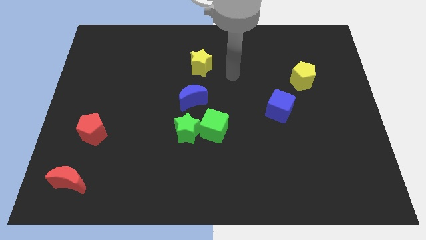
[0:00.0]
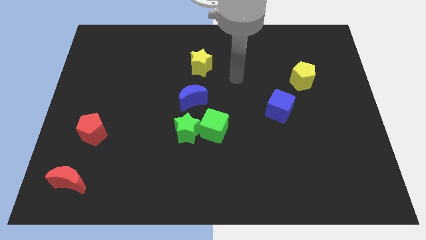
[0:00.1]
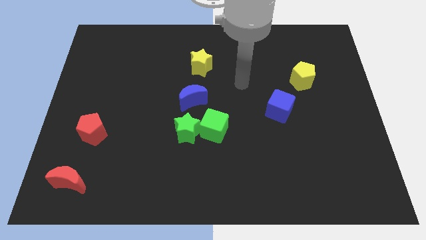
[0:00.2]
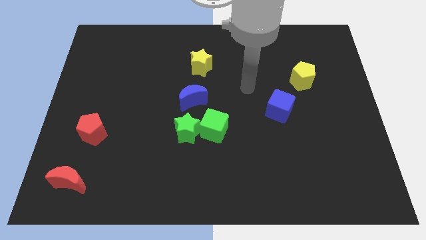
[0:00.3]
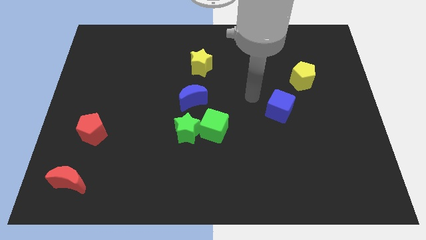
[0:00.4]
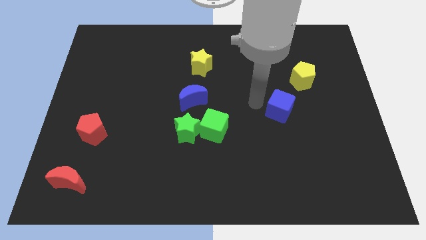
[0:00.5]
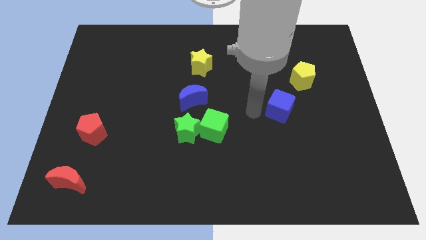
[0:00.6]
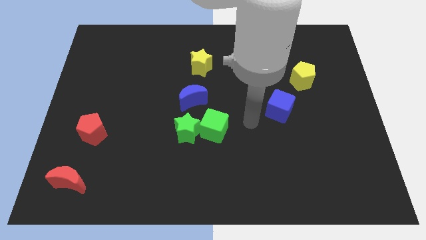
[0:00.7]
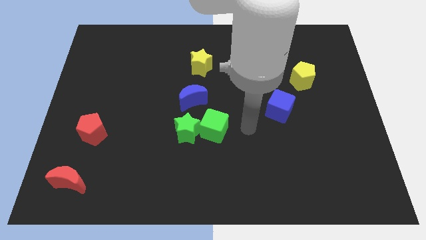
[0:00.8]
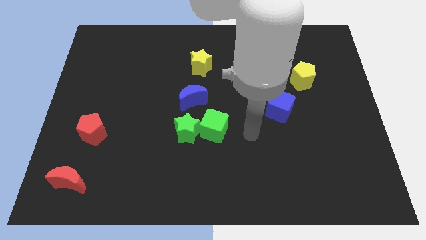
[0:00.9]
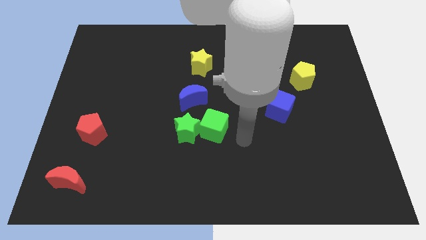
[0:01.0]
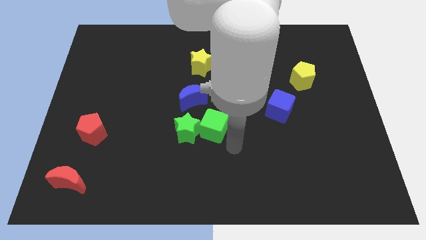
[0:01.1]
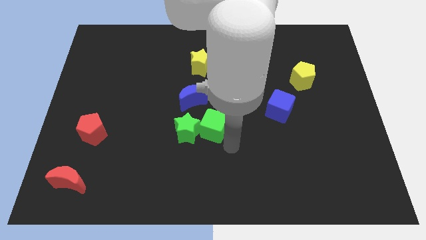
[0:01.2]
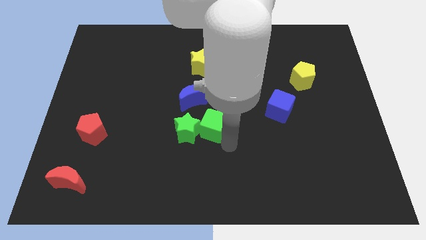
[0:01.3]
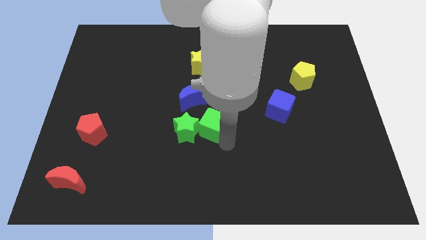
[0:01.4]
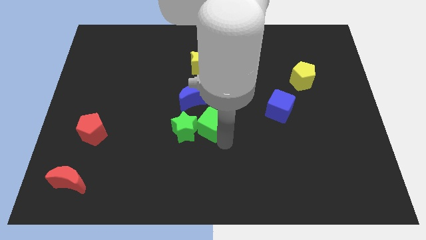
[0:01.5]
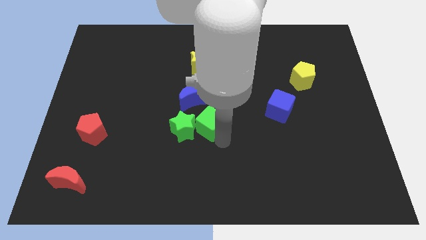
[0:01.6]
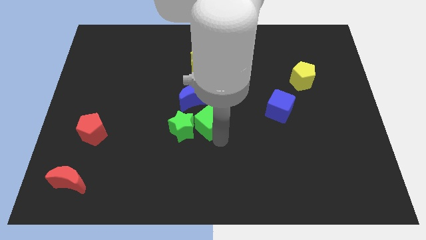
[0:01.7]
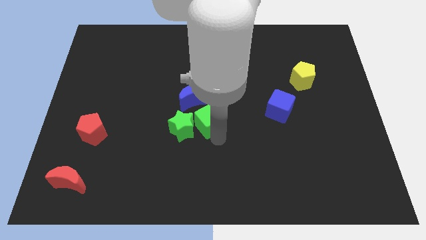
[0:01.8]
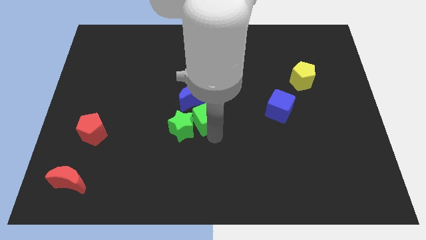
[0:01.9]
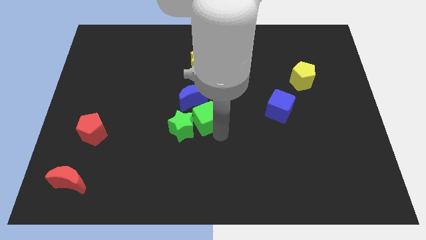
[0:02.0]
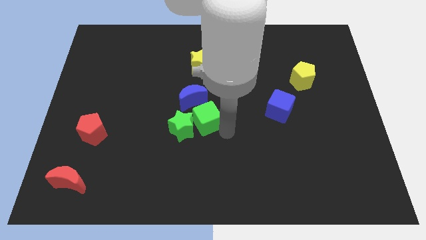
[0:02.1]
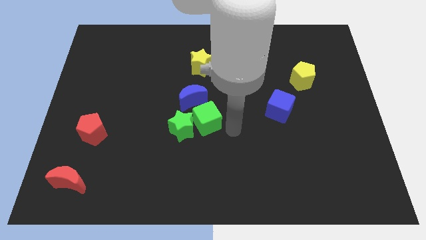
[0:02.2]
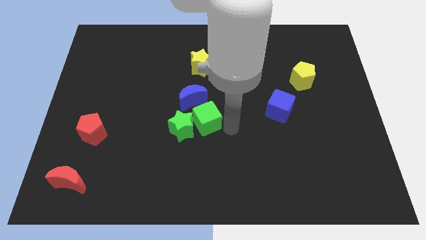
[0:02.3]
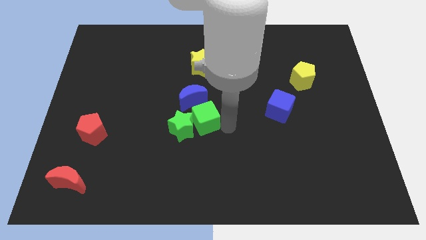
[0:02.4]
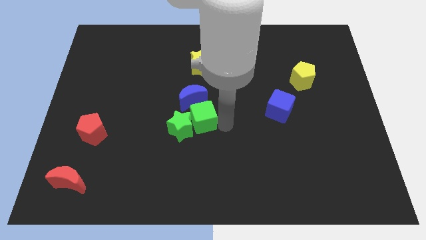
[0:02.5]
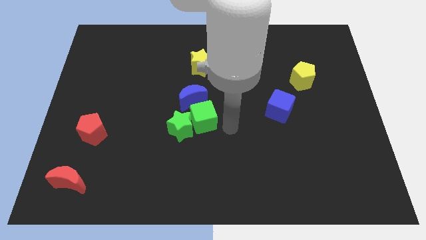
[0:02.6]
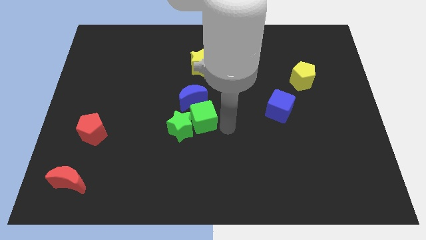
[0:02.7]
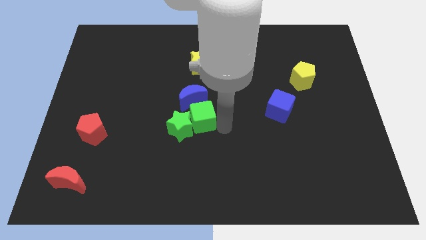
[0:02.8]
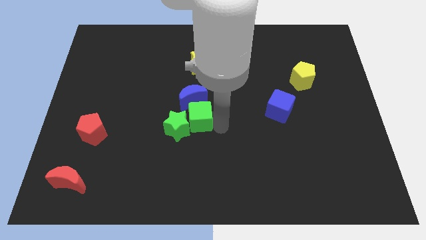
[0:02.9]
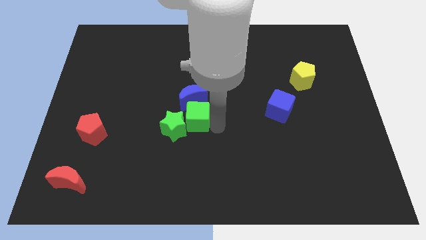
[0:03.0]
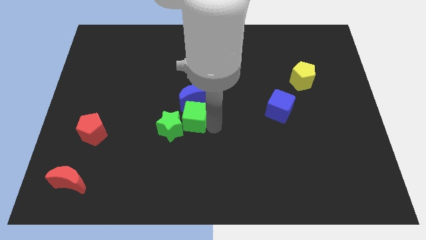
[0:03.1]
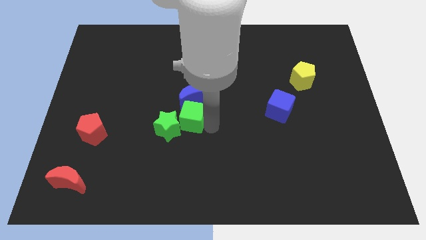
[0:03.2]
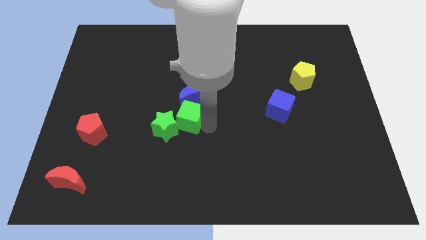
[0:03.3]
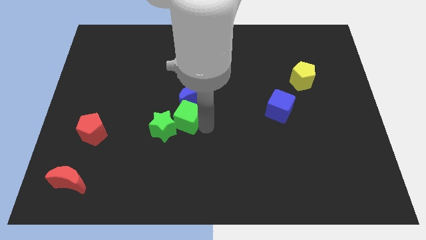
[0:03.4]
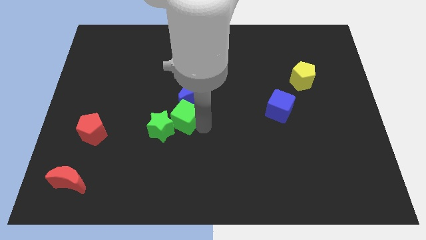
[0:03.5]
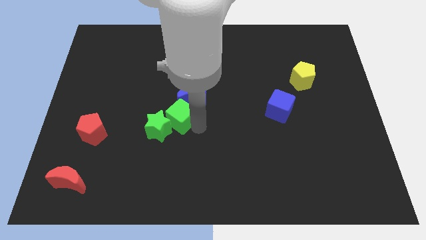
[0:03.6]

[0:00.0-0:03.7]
move the green cube a little bit upwards and to the left diagonally

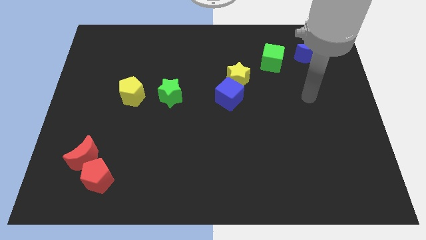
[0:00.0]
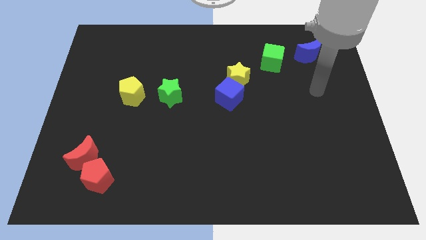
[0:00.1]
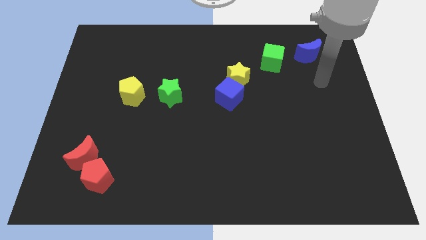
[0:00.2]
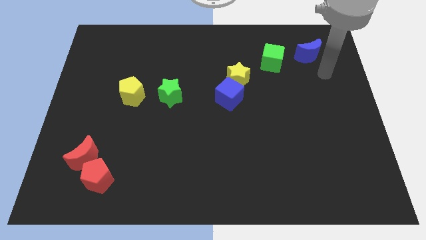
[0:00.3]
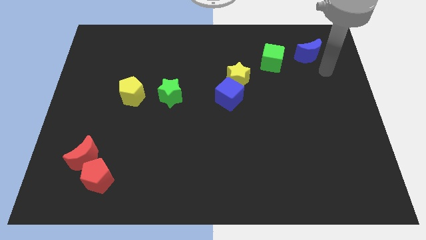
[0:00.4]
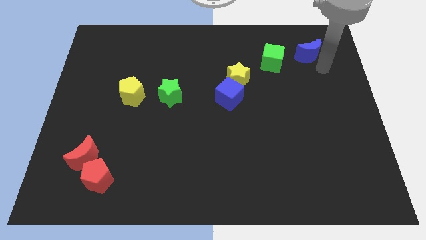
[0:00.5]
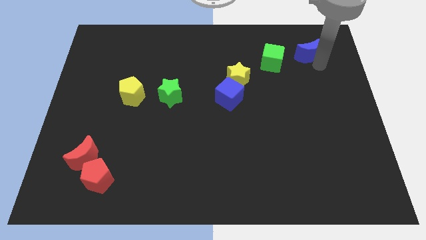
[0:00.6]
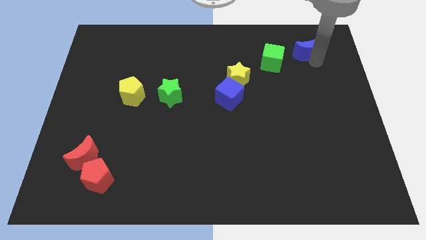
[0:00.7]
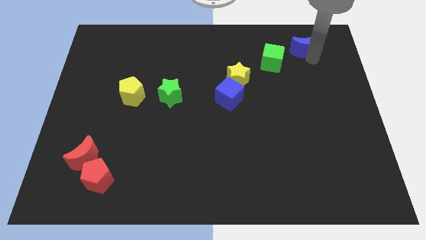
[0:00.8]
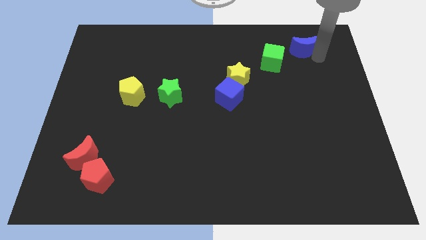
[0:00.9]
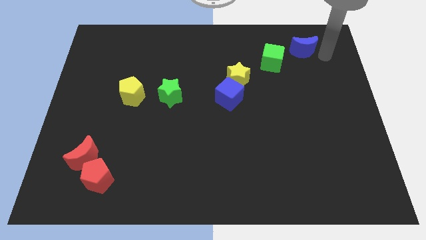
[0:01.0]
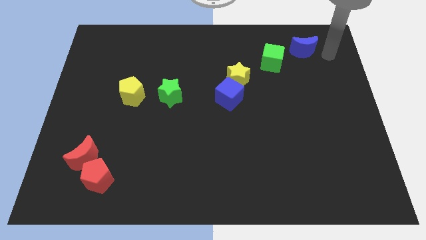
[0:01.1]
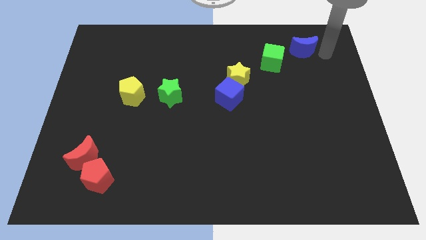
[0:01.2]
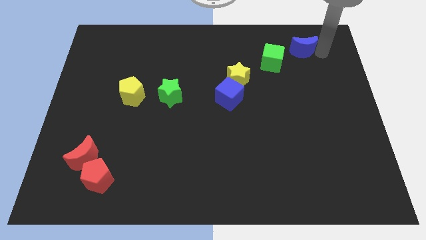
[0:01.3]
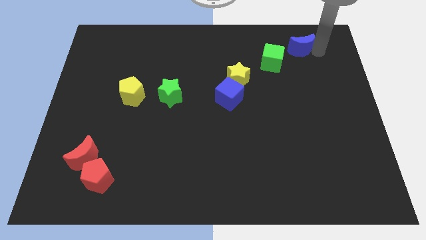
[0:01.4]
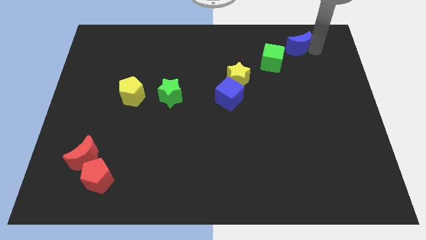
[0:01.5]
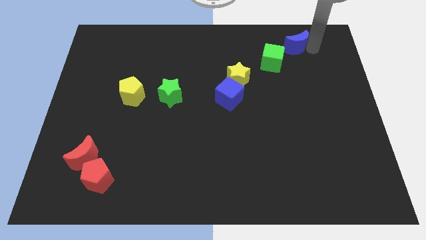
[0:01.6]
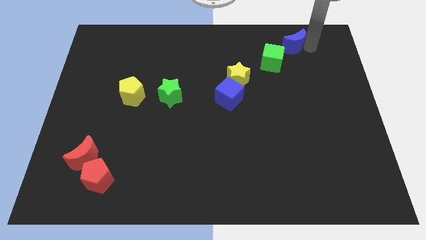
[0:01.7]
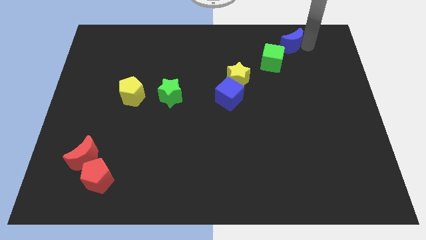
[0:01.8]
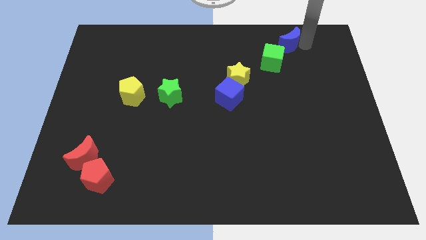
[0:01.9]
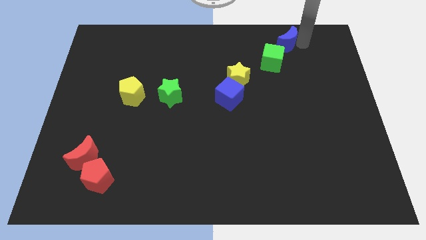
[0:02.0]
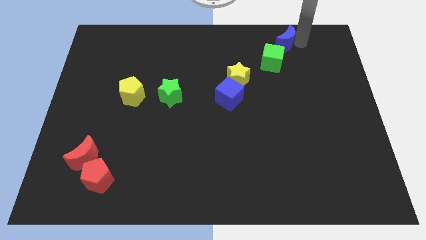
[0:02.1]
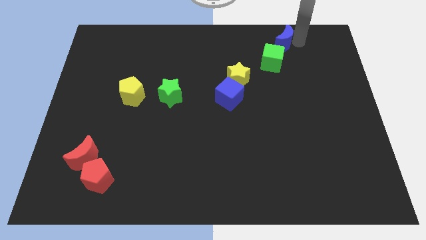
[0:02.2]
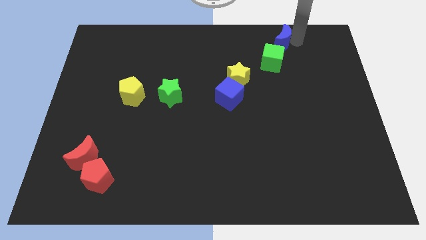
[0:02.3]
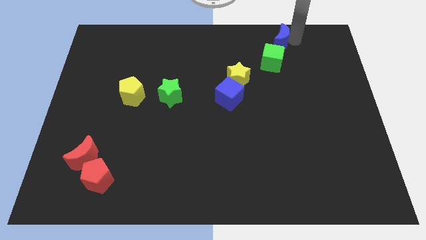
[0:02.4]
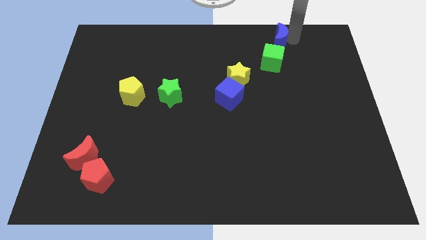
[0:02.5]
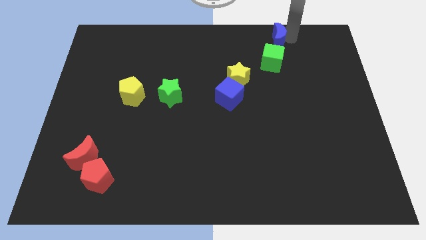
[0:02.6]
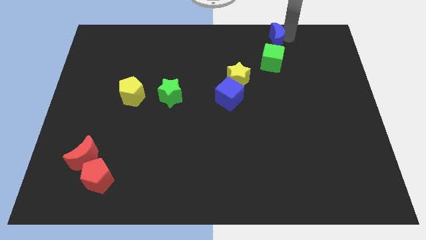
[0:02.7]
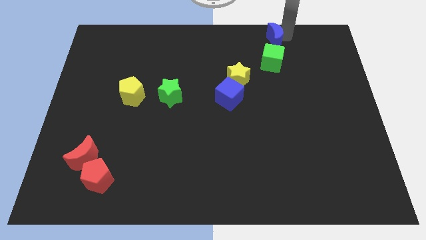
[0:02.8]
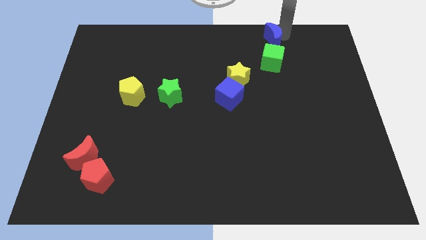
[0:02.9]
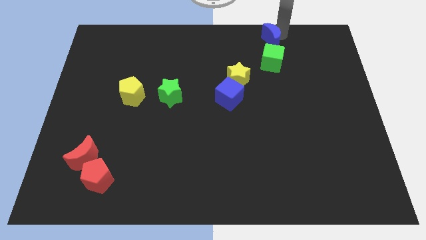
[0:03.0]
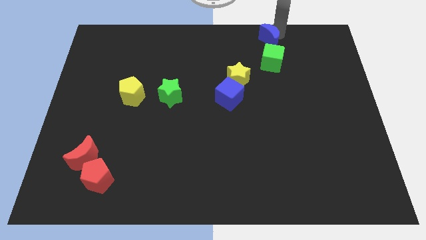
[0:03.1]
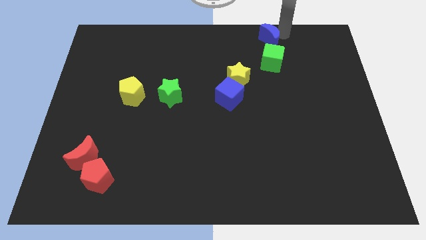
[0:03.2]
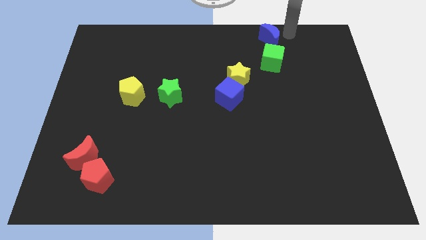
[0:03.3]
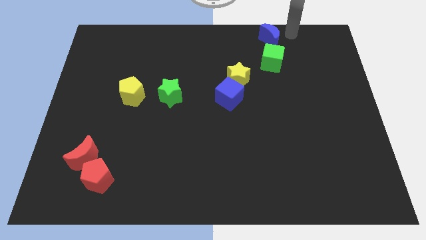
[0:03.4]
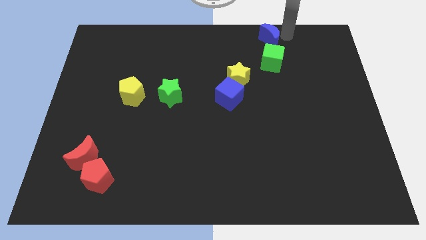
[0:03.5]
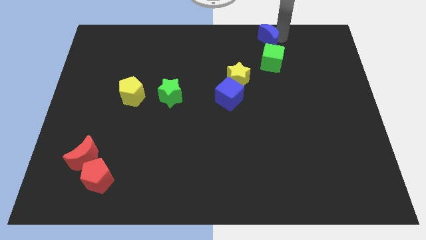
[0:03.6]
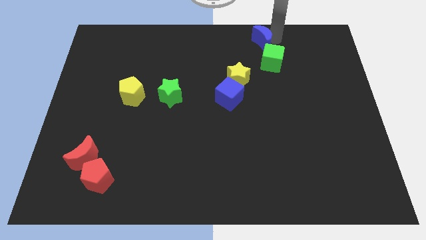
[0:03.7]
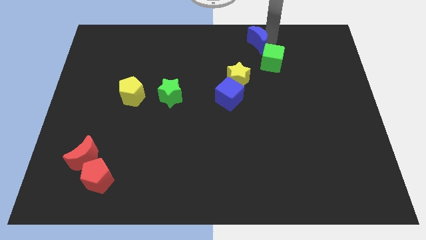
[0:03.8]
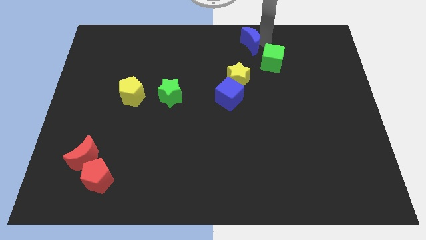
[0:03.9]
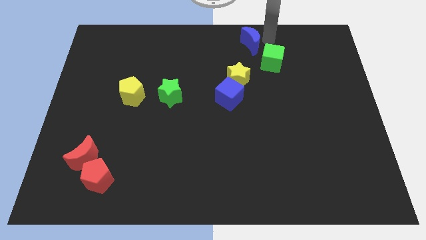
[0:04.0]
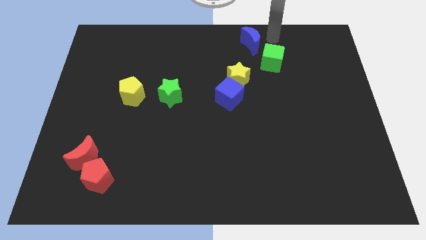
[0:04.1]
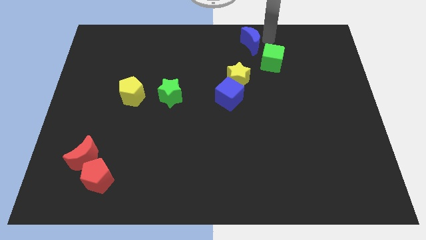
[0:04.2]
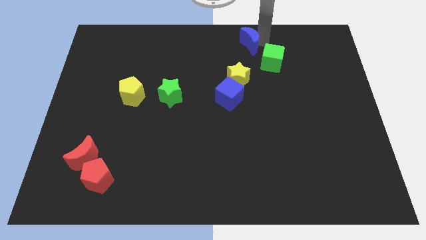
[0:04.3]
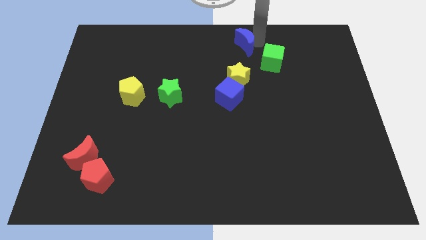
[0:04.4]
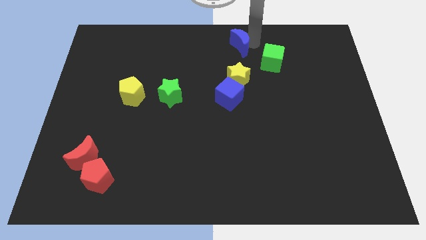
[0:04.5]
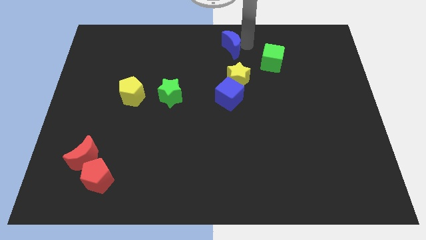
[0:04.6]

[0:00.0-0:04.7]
move the blue moon to the left
